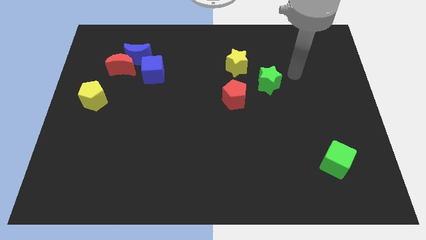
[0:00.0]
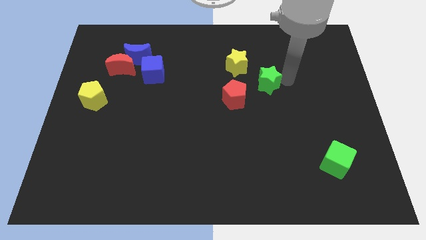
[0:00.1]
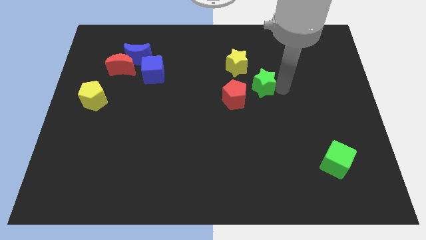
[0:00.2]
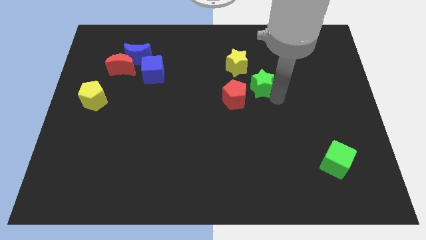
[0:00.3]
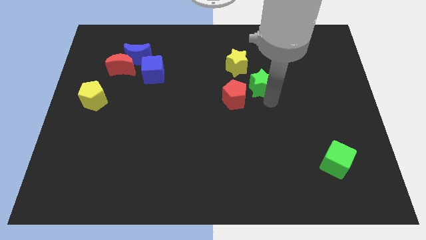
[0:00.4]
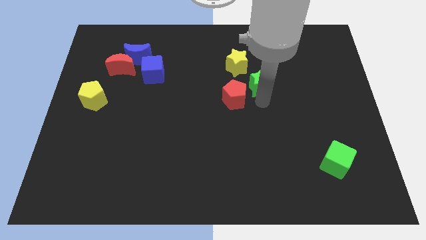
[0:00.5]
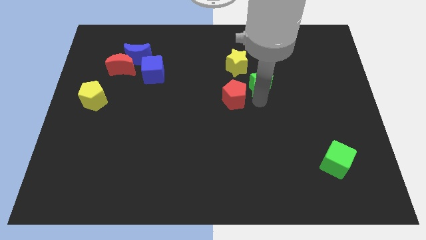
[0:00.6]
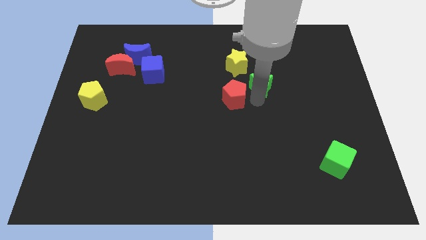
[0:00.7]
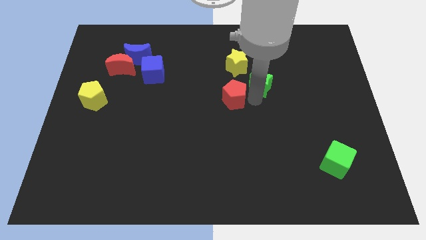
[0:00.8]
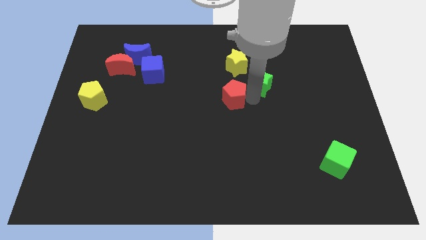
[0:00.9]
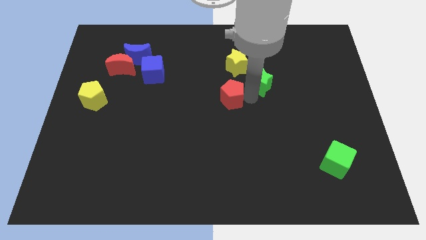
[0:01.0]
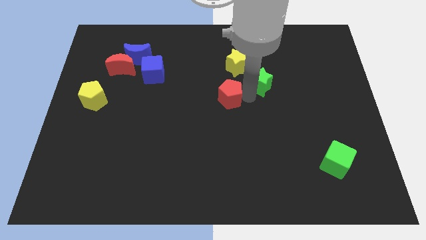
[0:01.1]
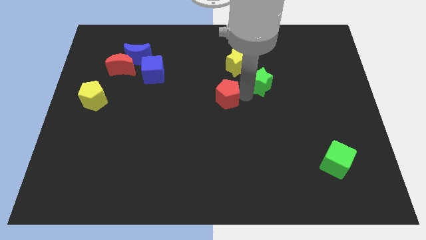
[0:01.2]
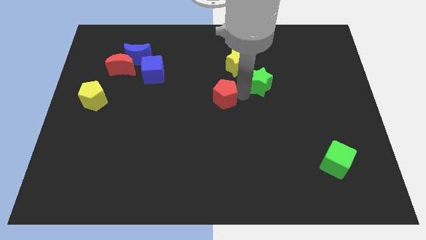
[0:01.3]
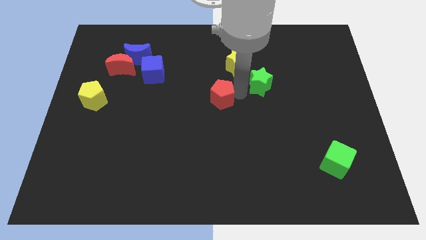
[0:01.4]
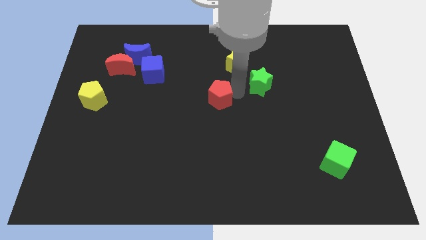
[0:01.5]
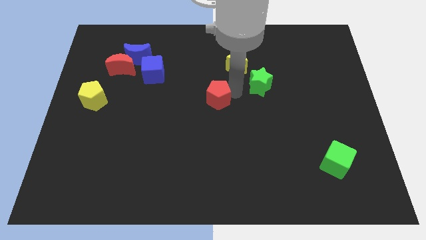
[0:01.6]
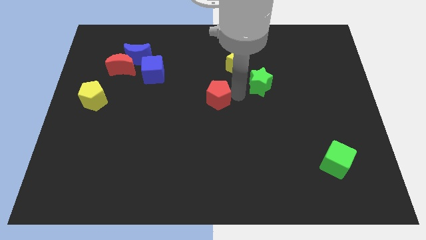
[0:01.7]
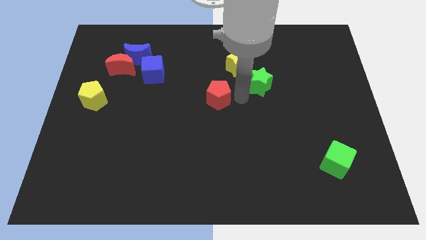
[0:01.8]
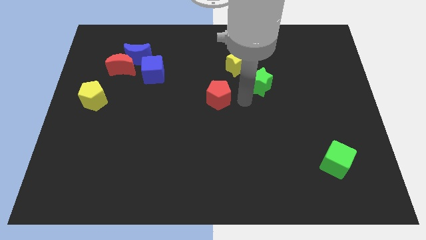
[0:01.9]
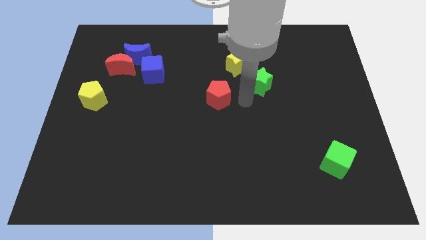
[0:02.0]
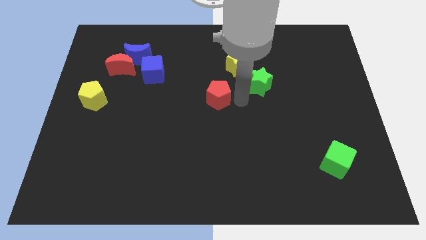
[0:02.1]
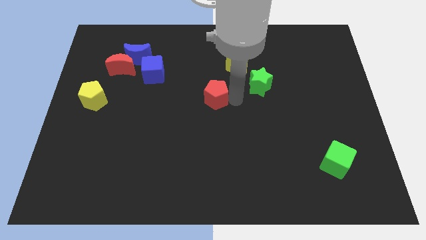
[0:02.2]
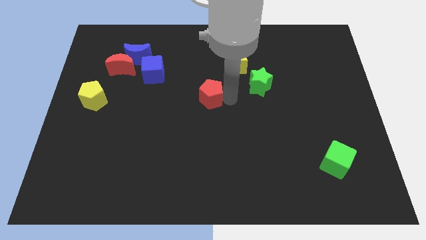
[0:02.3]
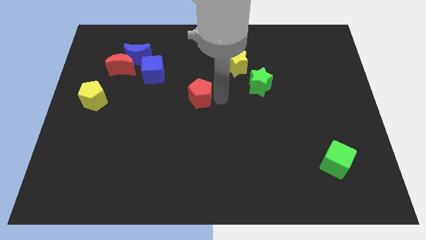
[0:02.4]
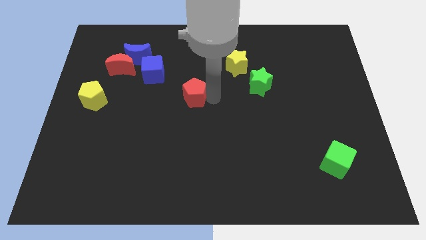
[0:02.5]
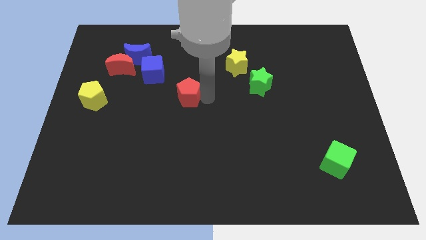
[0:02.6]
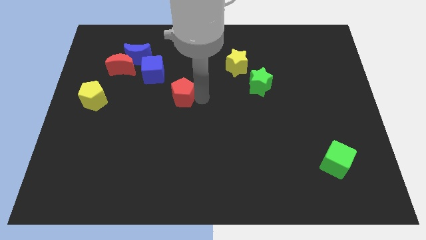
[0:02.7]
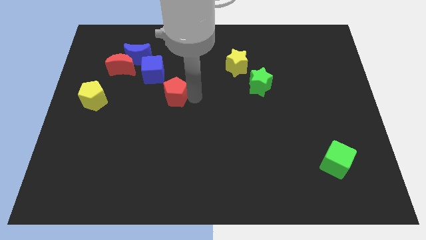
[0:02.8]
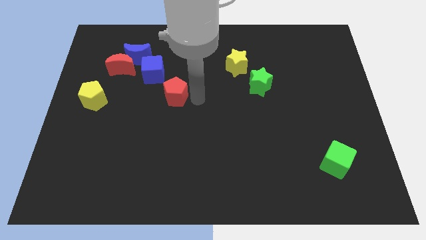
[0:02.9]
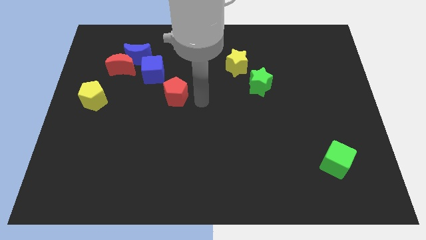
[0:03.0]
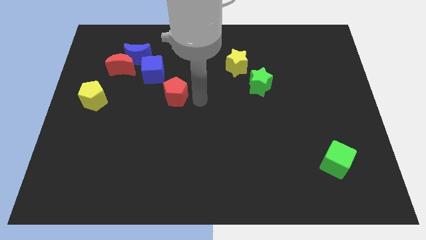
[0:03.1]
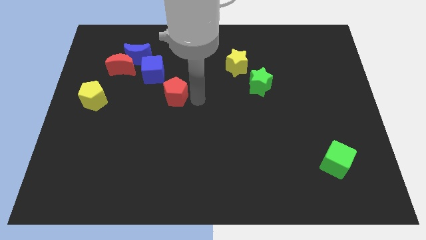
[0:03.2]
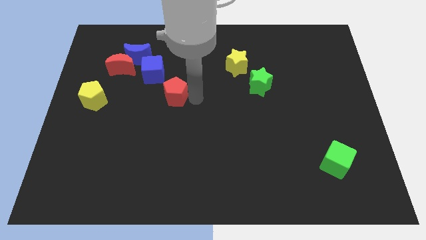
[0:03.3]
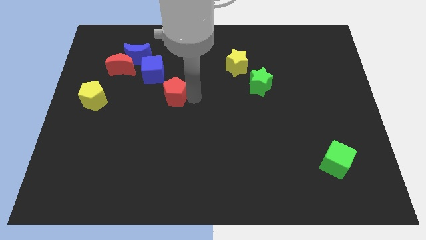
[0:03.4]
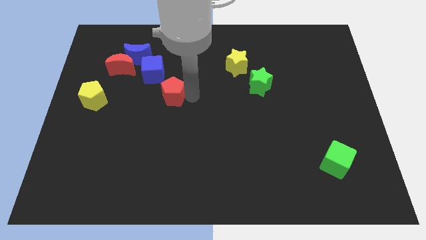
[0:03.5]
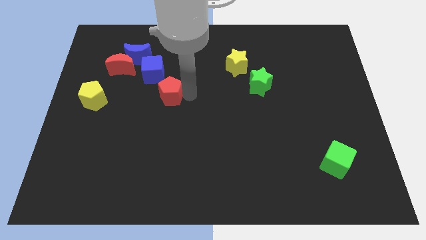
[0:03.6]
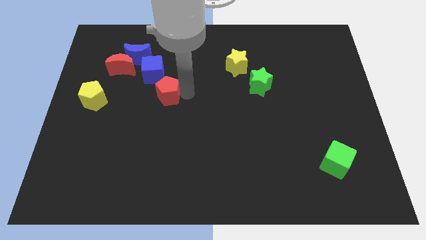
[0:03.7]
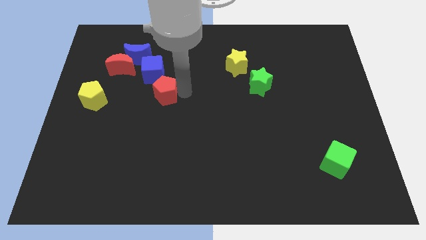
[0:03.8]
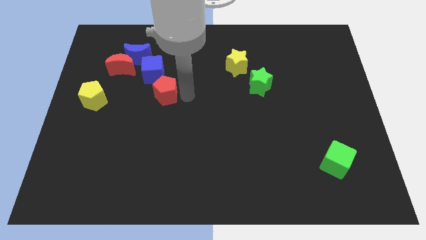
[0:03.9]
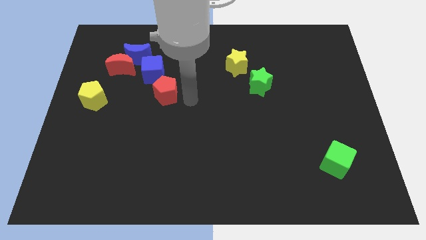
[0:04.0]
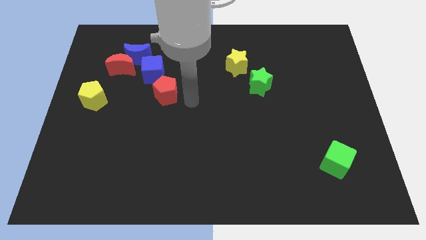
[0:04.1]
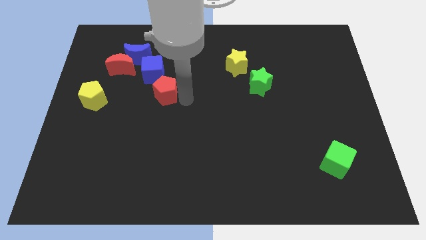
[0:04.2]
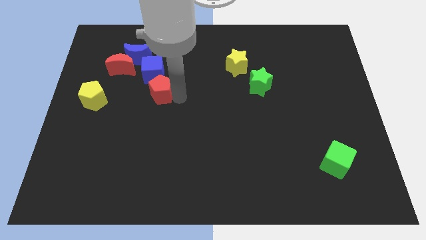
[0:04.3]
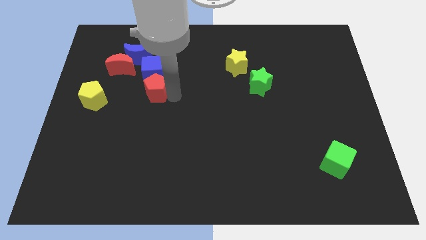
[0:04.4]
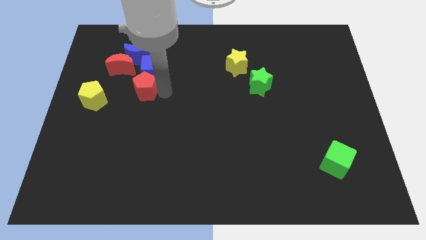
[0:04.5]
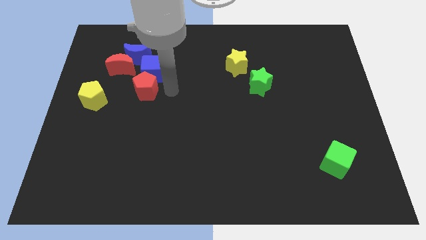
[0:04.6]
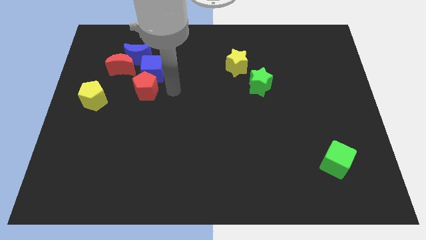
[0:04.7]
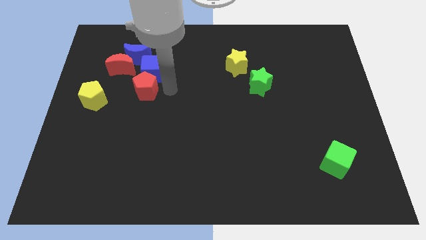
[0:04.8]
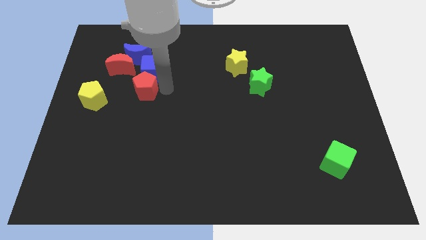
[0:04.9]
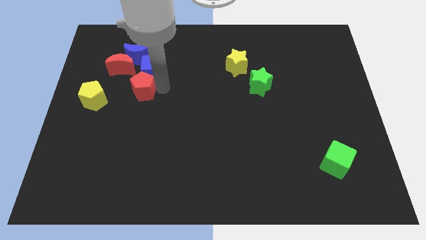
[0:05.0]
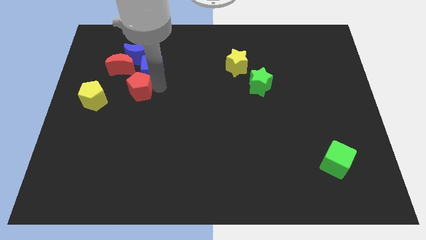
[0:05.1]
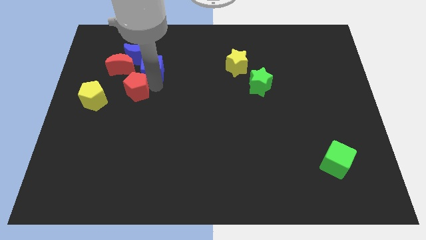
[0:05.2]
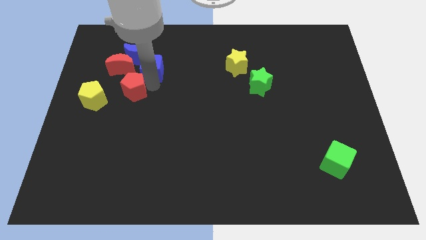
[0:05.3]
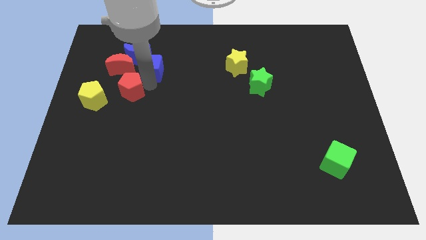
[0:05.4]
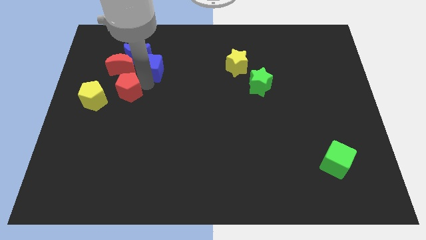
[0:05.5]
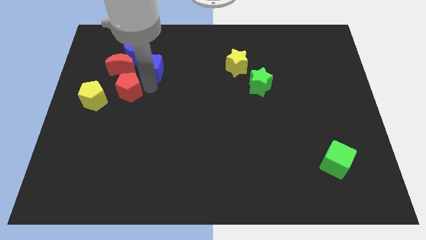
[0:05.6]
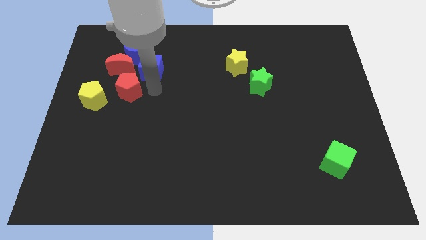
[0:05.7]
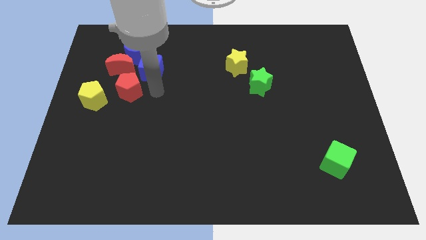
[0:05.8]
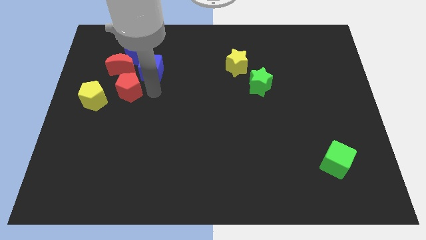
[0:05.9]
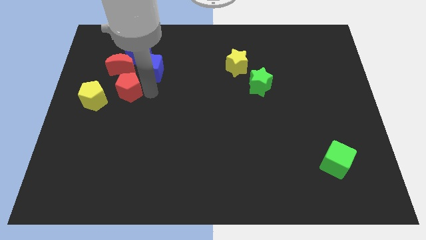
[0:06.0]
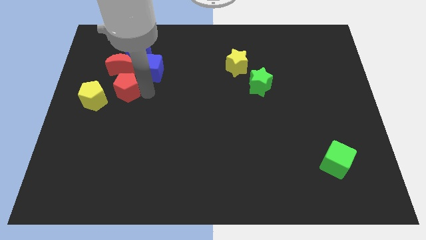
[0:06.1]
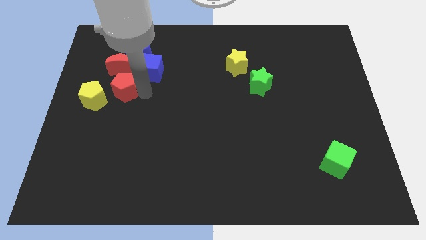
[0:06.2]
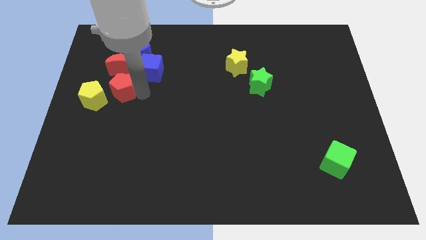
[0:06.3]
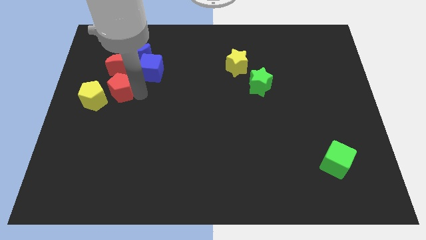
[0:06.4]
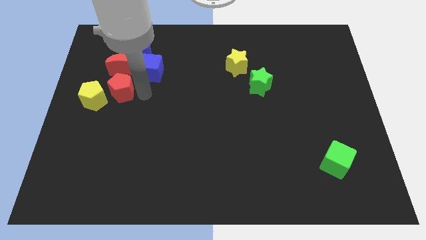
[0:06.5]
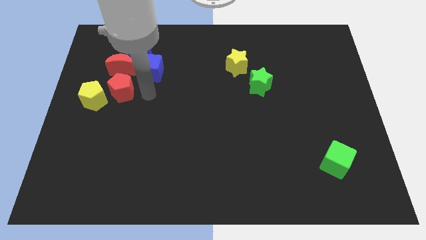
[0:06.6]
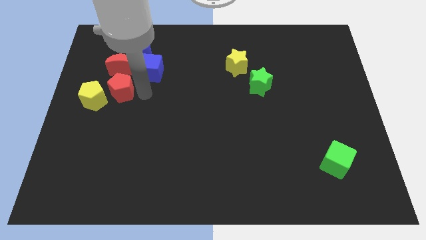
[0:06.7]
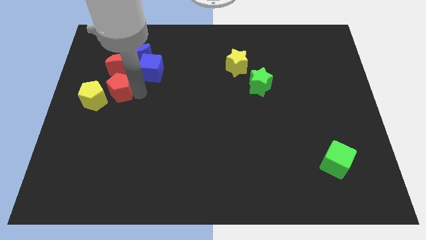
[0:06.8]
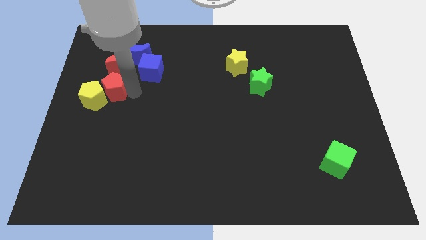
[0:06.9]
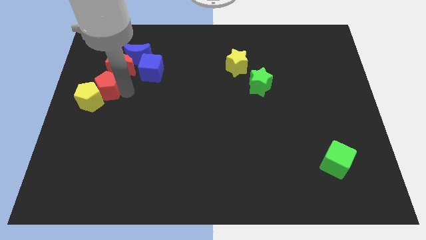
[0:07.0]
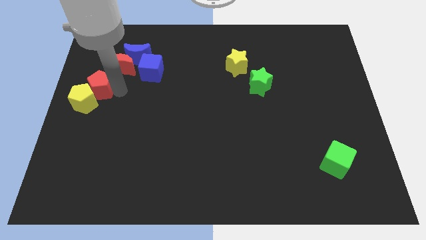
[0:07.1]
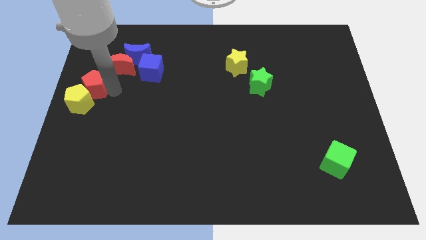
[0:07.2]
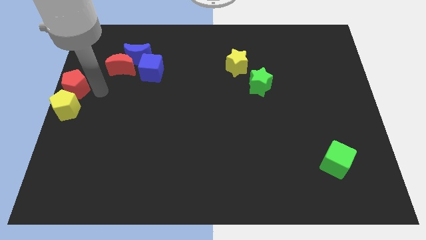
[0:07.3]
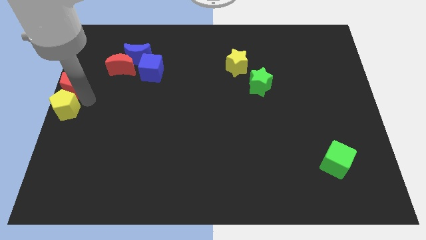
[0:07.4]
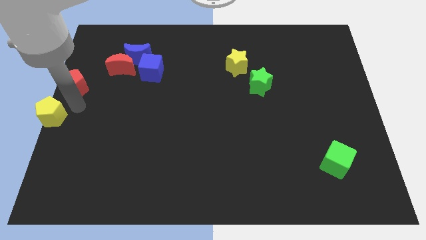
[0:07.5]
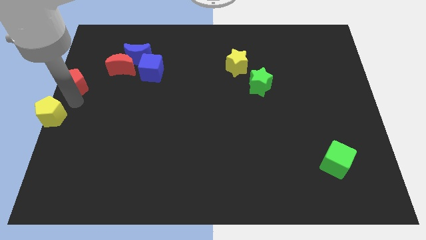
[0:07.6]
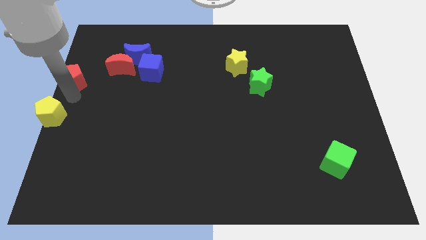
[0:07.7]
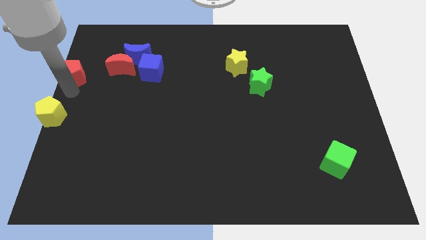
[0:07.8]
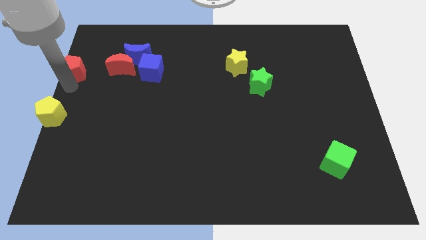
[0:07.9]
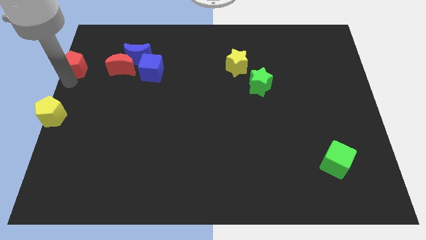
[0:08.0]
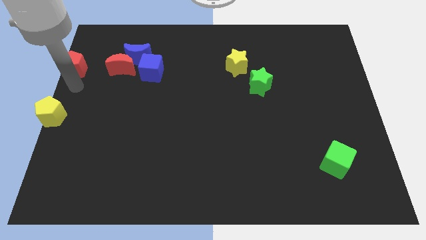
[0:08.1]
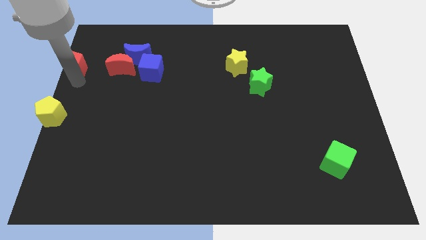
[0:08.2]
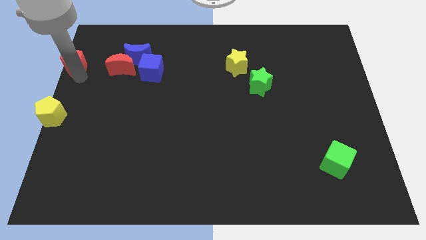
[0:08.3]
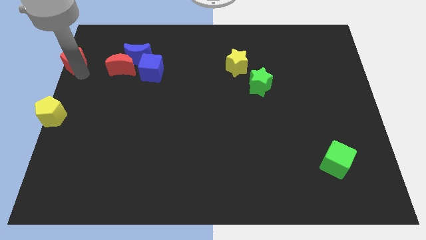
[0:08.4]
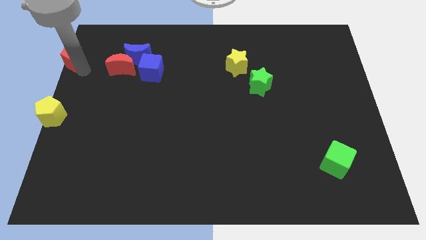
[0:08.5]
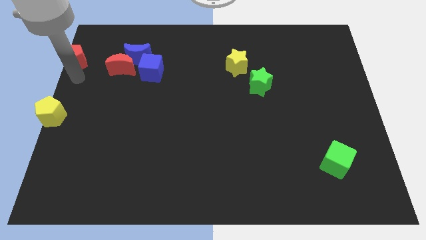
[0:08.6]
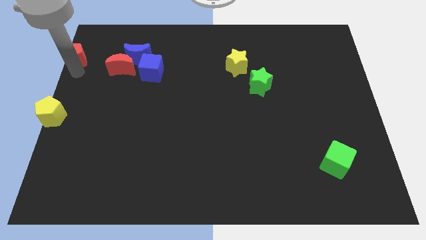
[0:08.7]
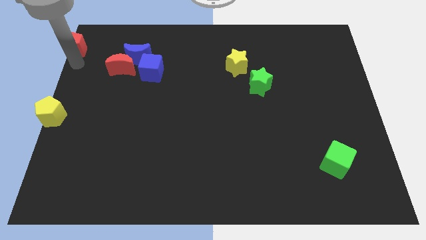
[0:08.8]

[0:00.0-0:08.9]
push the red pentagon to the top left
